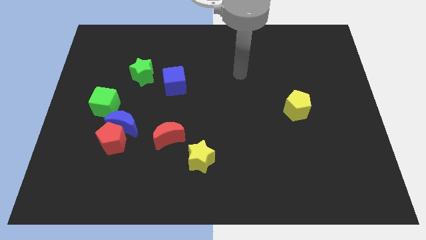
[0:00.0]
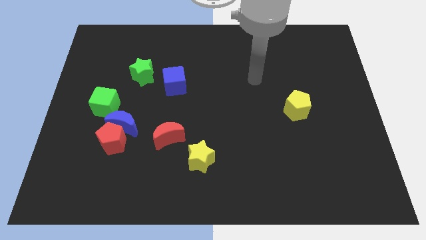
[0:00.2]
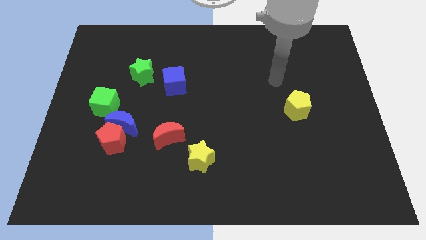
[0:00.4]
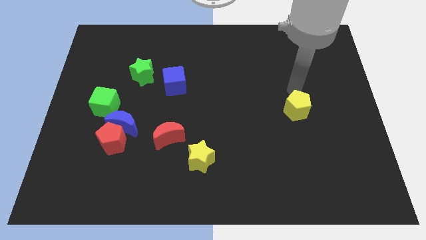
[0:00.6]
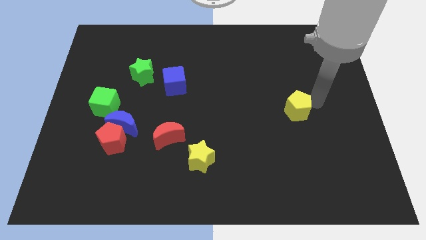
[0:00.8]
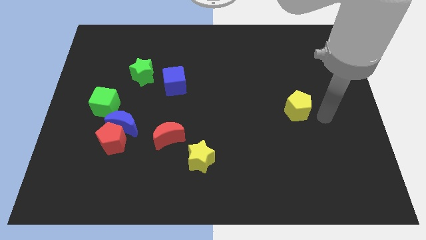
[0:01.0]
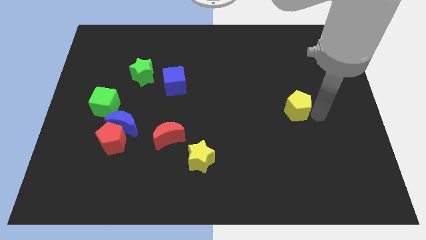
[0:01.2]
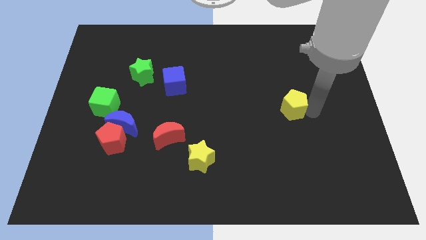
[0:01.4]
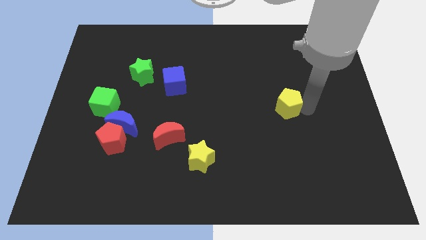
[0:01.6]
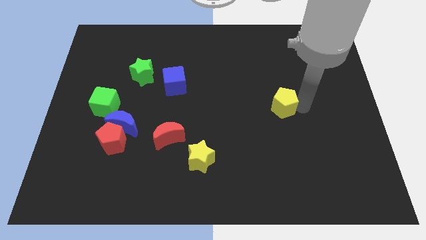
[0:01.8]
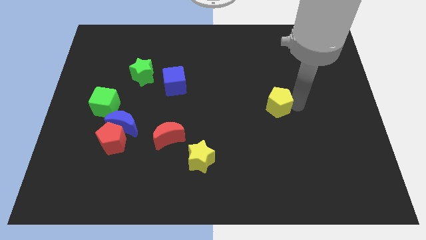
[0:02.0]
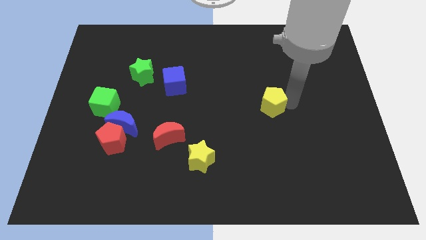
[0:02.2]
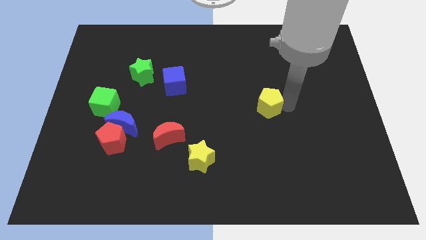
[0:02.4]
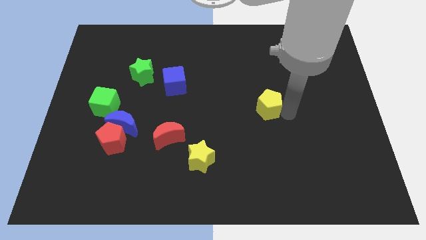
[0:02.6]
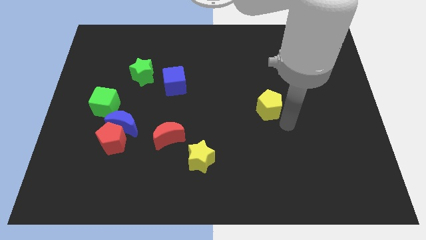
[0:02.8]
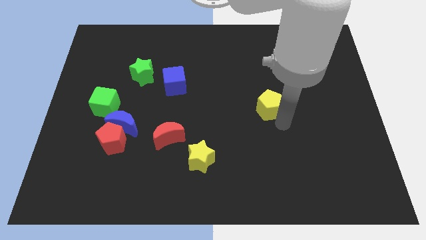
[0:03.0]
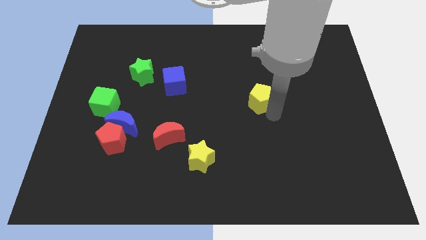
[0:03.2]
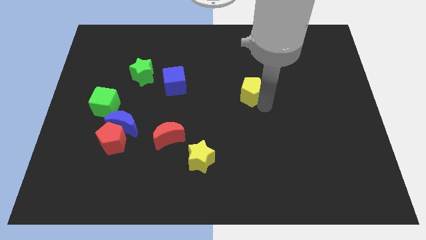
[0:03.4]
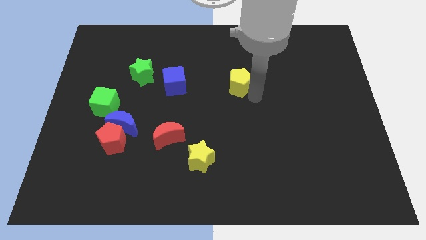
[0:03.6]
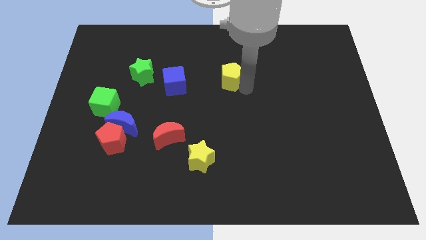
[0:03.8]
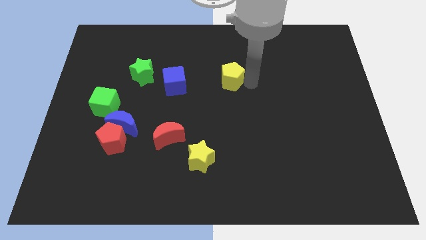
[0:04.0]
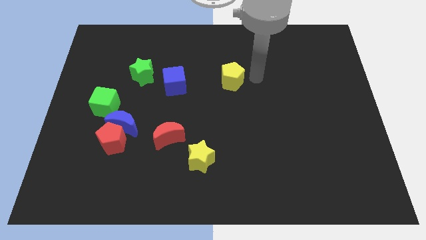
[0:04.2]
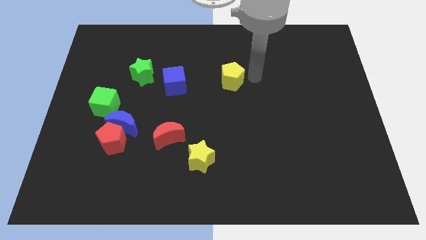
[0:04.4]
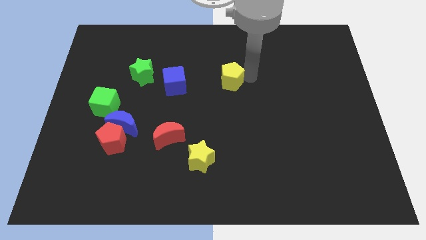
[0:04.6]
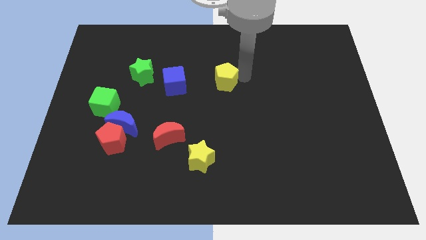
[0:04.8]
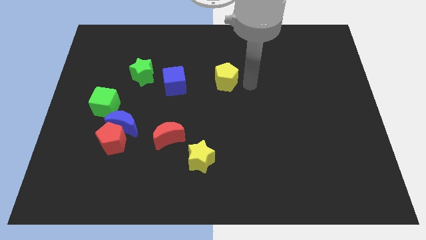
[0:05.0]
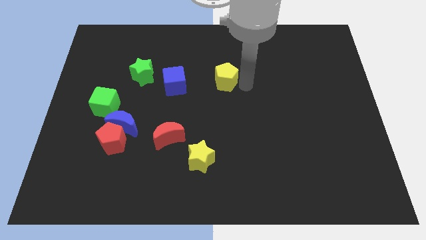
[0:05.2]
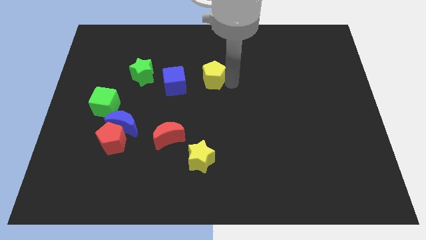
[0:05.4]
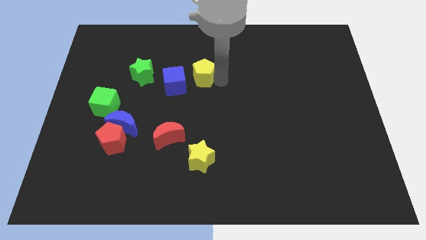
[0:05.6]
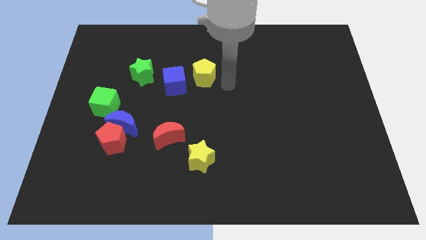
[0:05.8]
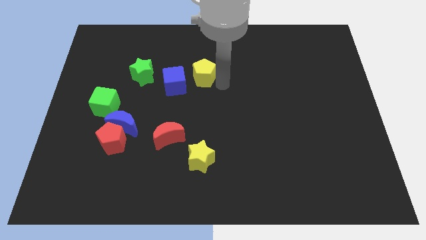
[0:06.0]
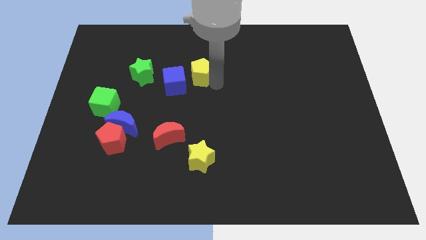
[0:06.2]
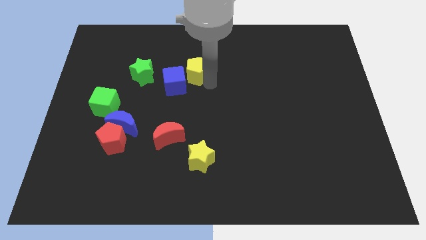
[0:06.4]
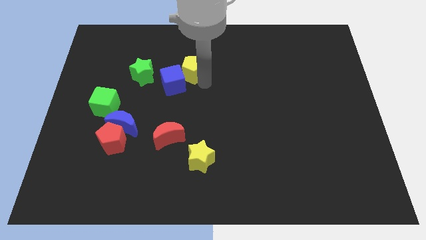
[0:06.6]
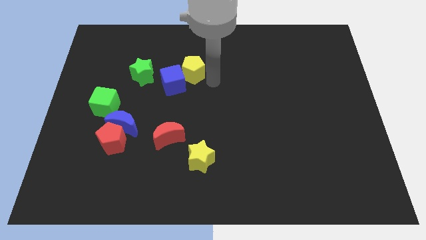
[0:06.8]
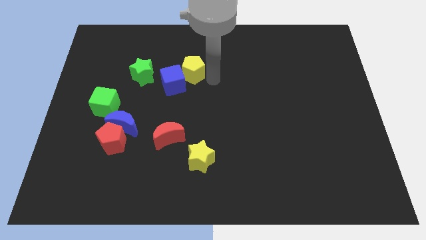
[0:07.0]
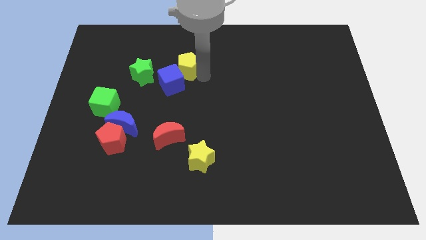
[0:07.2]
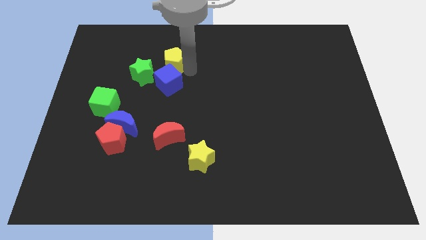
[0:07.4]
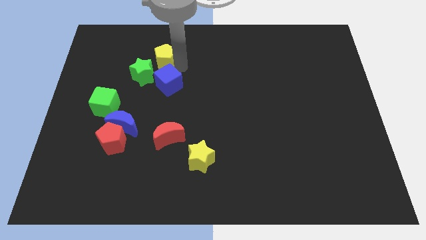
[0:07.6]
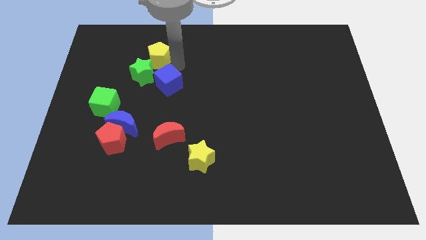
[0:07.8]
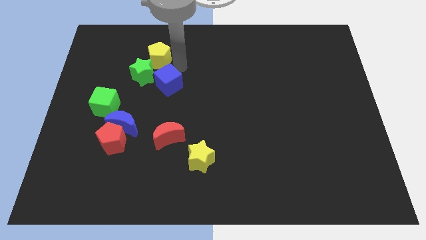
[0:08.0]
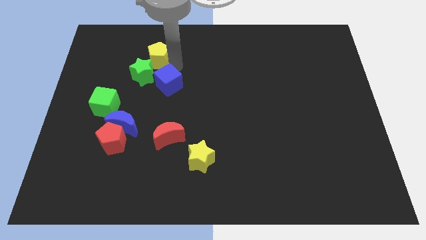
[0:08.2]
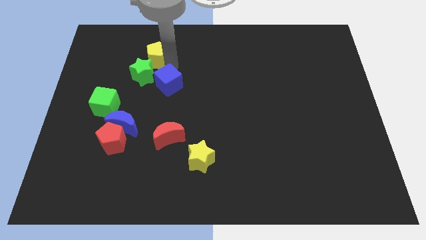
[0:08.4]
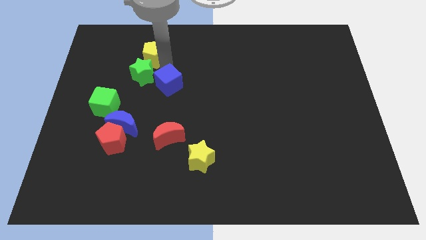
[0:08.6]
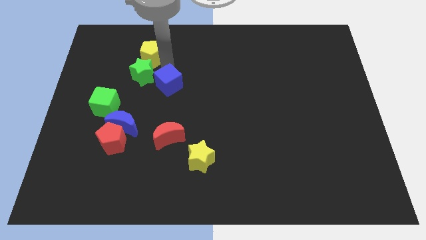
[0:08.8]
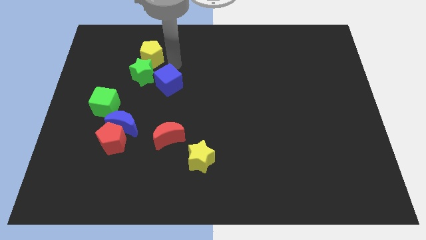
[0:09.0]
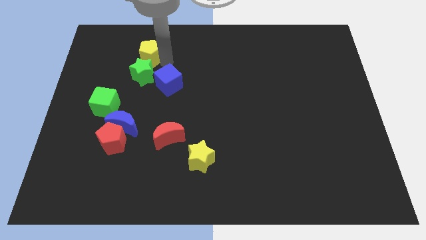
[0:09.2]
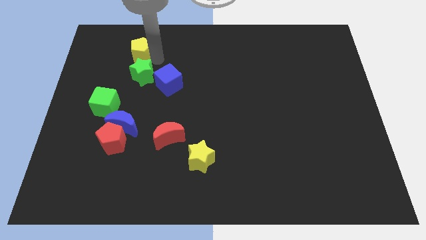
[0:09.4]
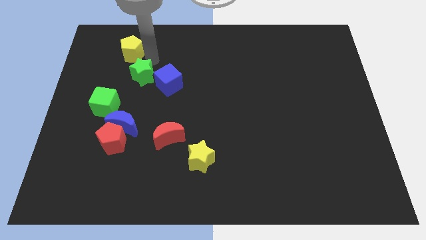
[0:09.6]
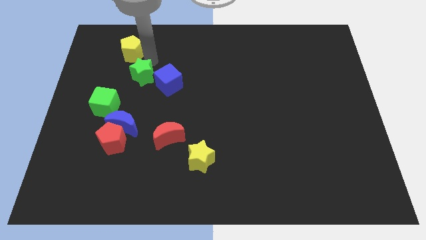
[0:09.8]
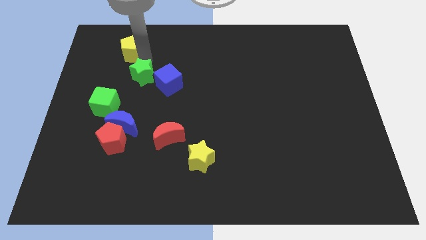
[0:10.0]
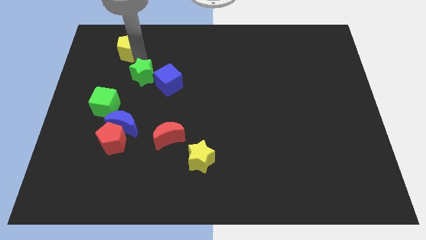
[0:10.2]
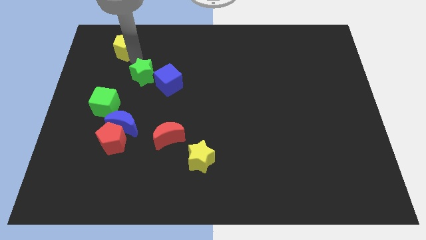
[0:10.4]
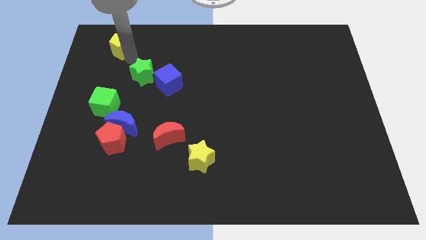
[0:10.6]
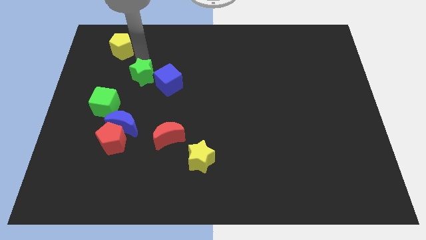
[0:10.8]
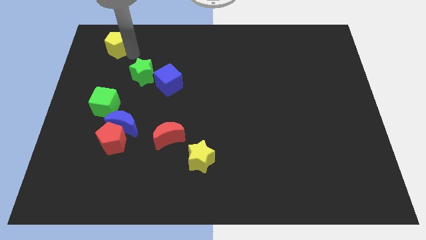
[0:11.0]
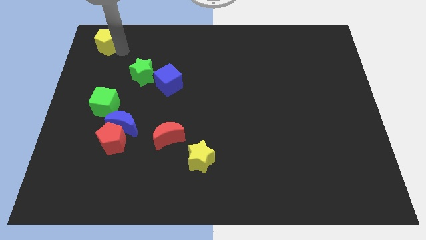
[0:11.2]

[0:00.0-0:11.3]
move the yellow pentagon to the top left of the board

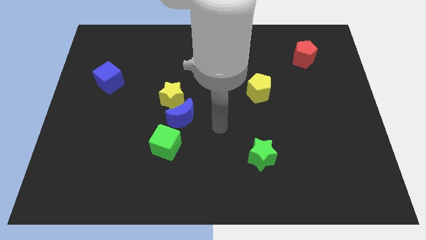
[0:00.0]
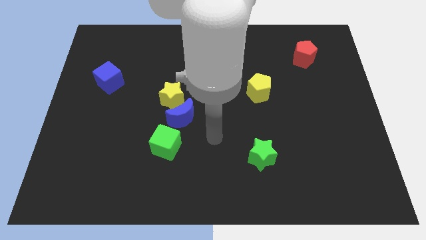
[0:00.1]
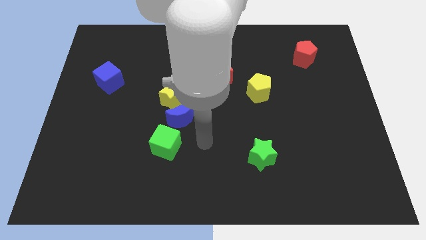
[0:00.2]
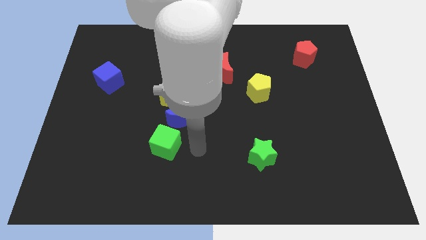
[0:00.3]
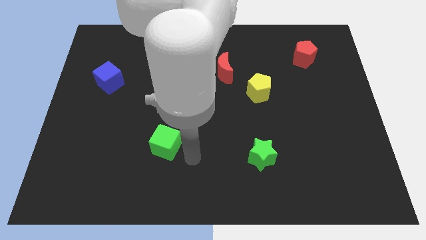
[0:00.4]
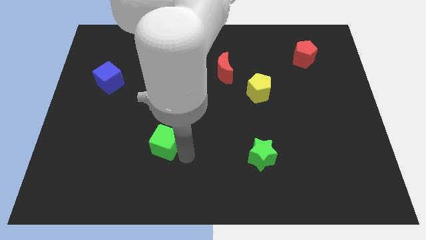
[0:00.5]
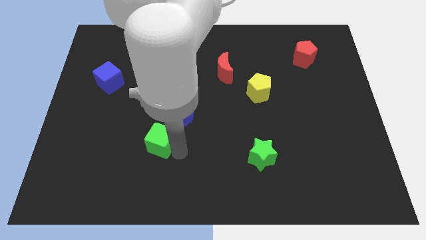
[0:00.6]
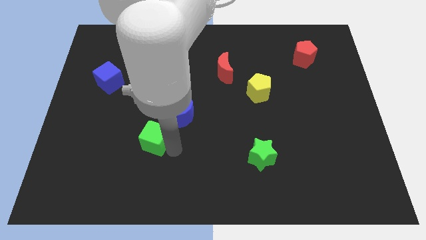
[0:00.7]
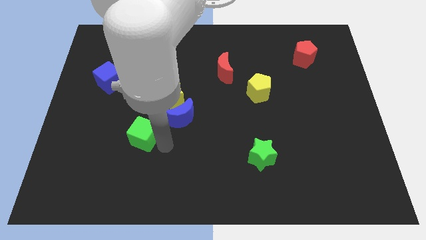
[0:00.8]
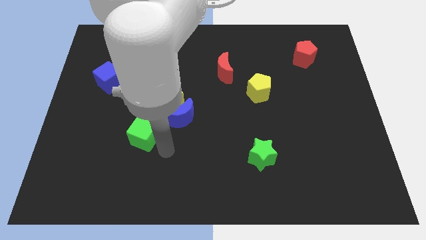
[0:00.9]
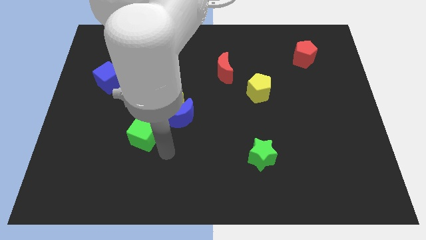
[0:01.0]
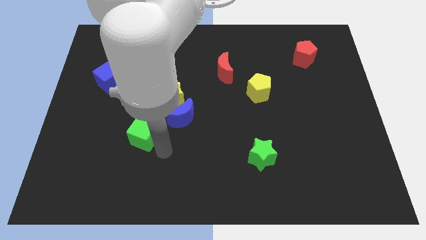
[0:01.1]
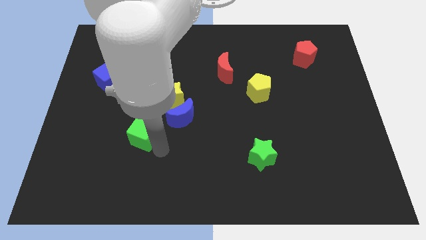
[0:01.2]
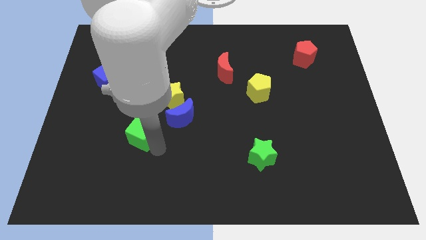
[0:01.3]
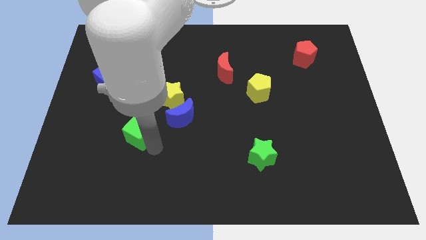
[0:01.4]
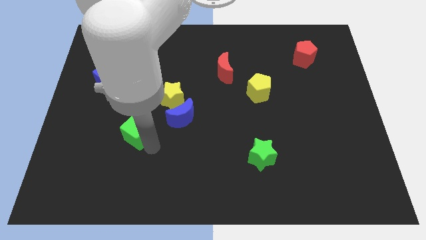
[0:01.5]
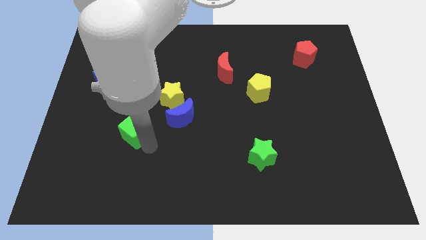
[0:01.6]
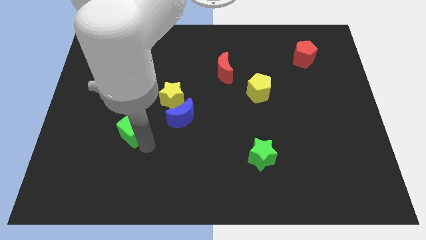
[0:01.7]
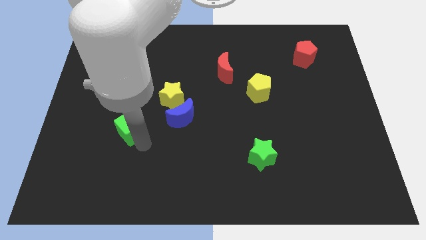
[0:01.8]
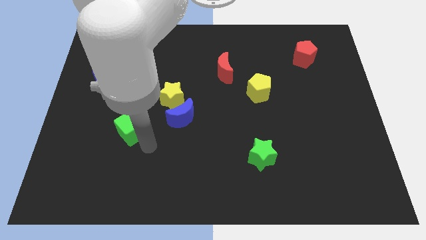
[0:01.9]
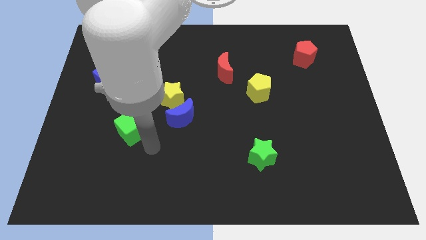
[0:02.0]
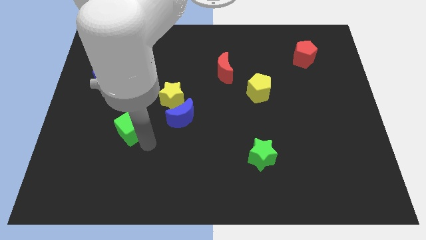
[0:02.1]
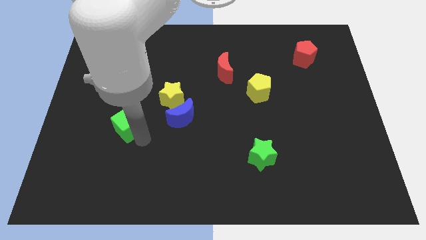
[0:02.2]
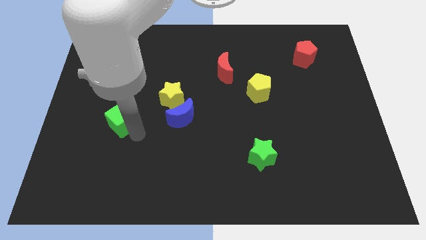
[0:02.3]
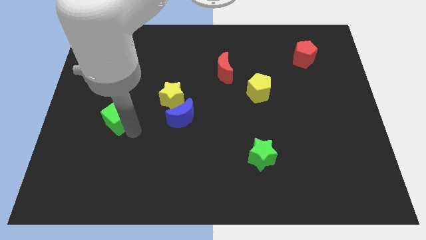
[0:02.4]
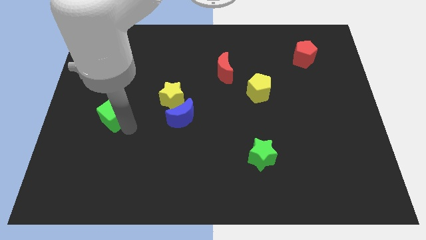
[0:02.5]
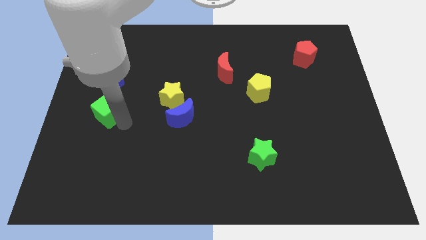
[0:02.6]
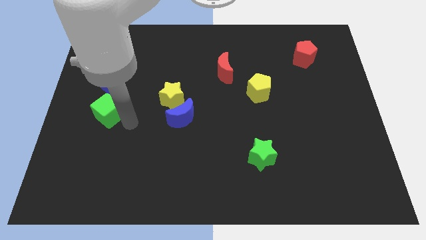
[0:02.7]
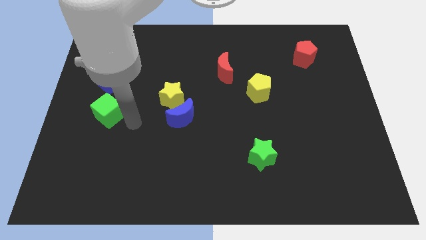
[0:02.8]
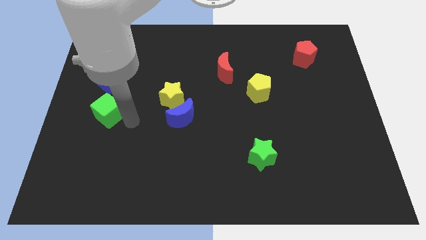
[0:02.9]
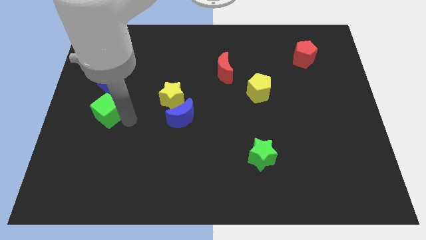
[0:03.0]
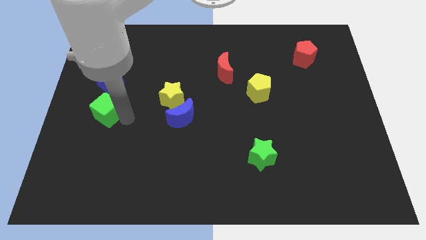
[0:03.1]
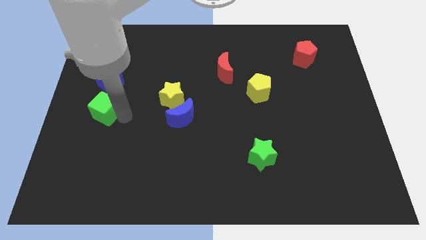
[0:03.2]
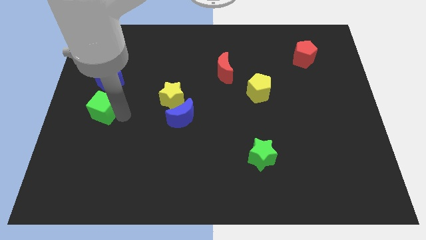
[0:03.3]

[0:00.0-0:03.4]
put the green cube to the left side
